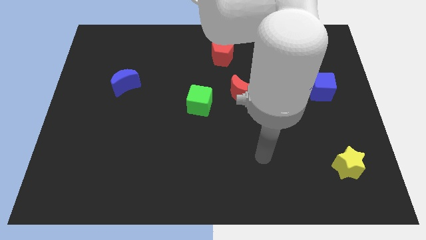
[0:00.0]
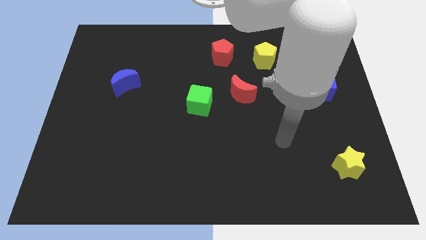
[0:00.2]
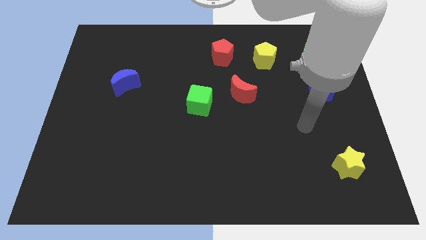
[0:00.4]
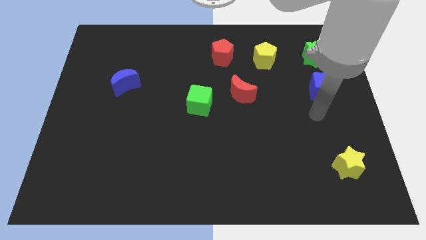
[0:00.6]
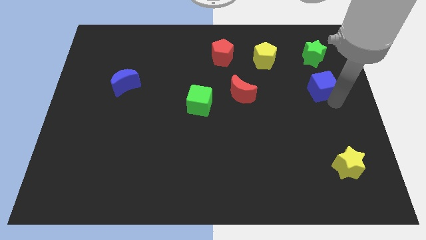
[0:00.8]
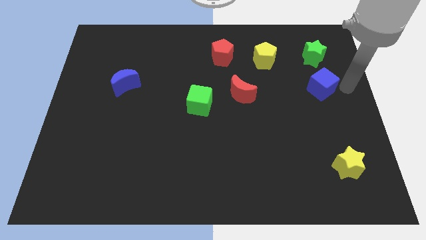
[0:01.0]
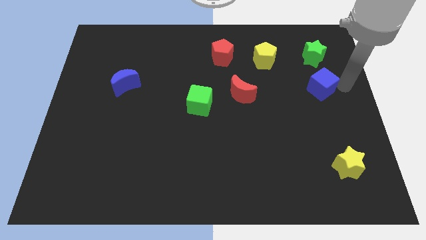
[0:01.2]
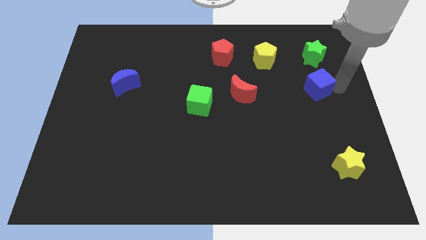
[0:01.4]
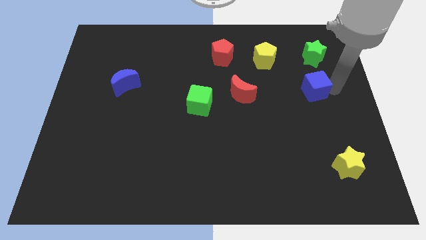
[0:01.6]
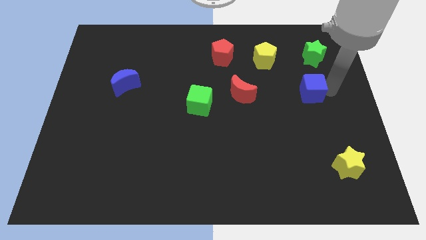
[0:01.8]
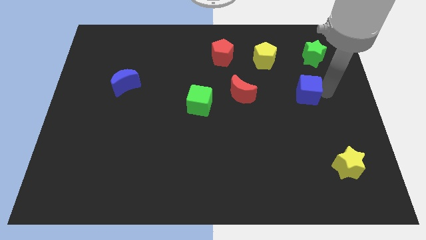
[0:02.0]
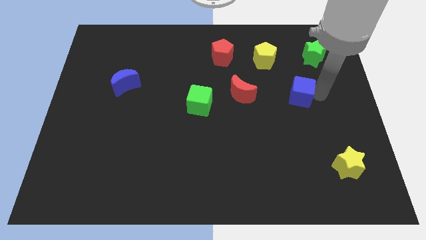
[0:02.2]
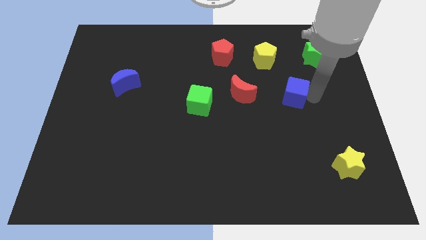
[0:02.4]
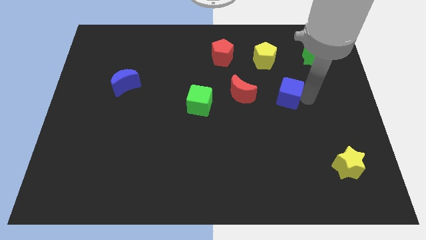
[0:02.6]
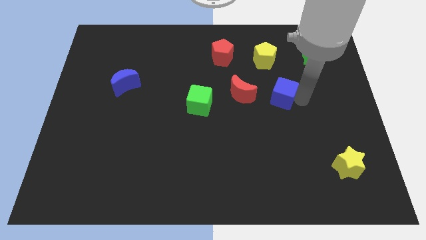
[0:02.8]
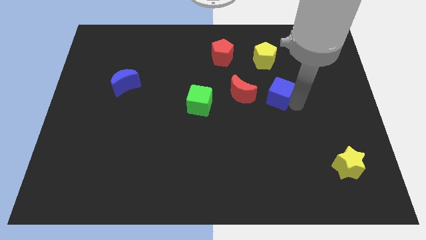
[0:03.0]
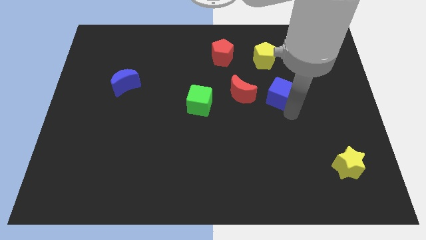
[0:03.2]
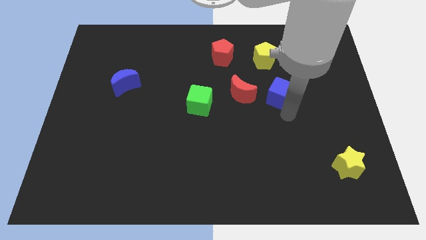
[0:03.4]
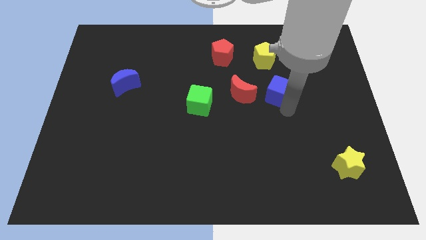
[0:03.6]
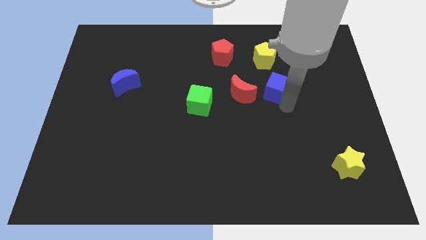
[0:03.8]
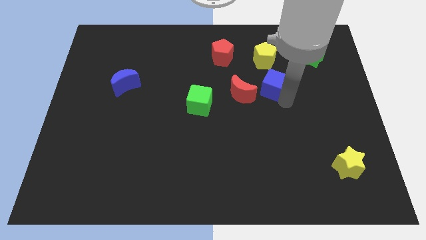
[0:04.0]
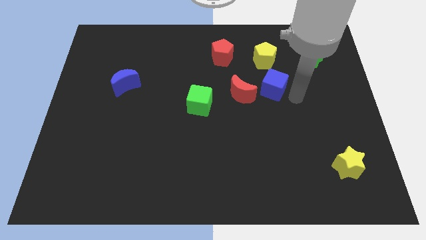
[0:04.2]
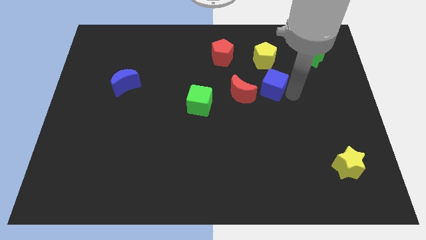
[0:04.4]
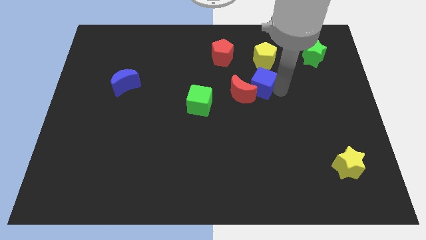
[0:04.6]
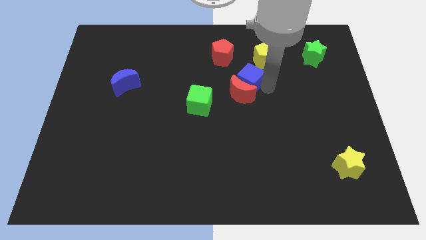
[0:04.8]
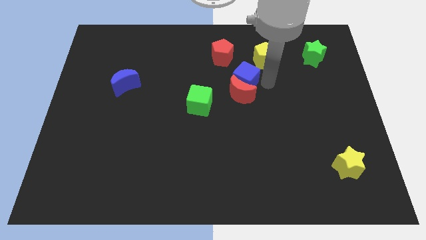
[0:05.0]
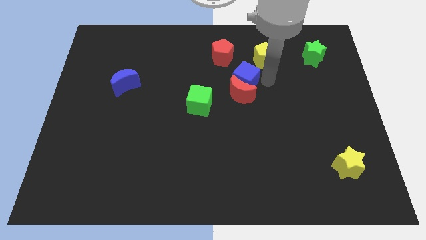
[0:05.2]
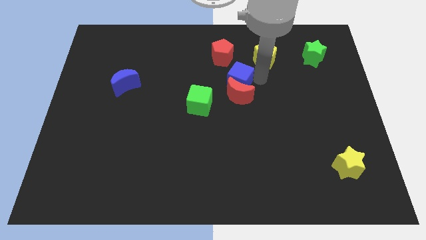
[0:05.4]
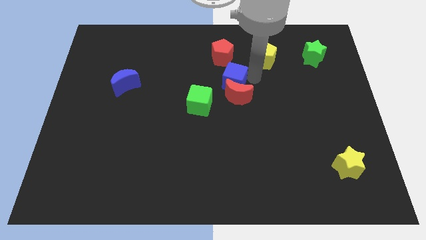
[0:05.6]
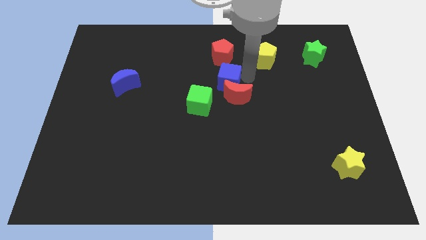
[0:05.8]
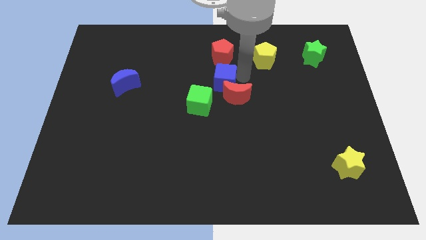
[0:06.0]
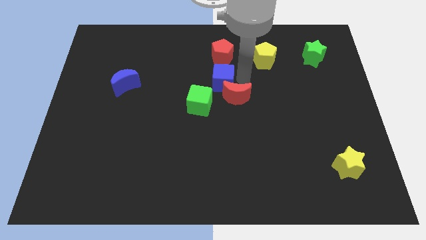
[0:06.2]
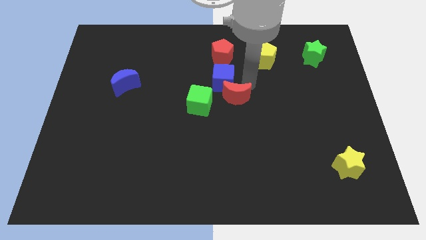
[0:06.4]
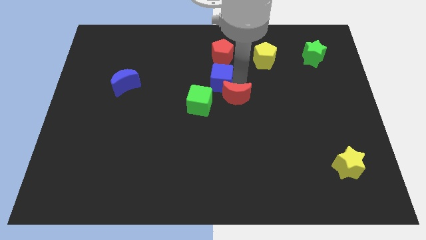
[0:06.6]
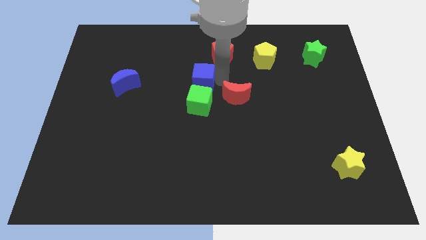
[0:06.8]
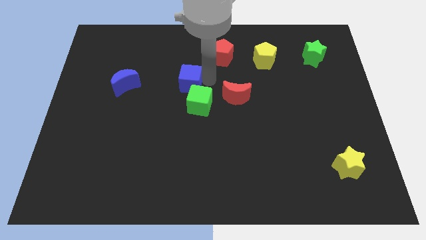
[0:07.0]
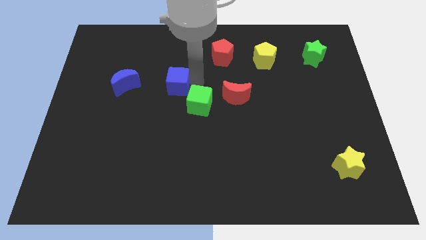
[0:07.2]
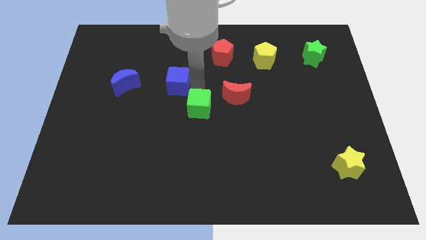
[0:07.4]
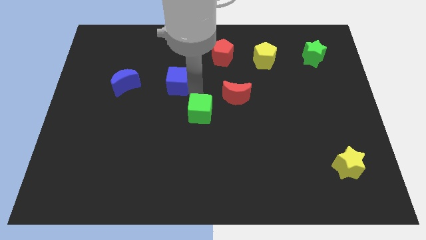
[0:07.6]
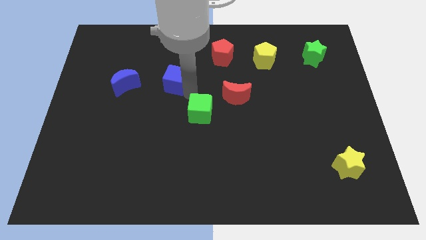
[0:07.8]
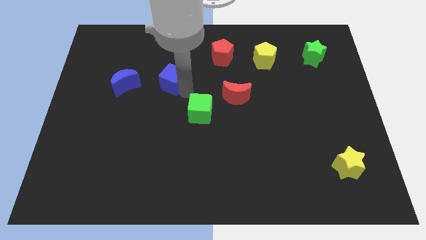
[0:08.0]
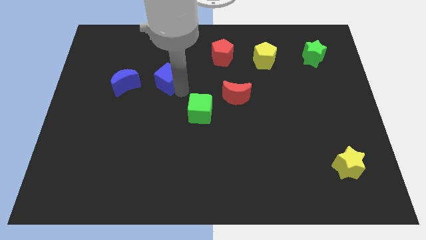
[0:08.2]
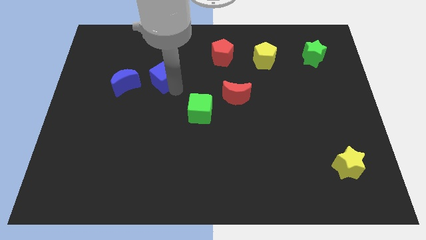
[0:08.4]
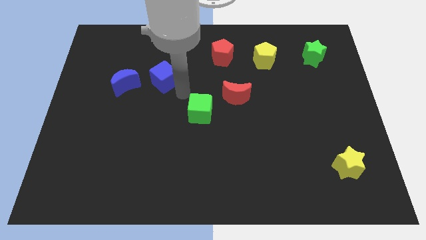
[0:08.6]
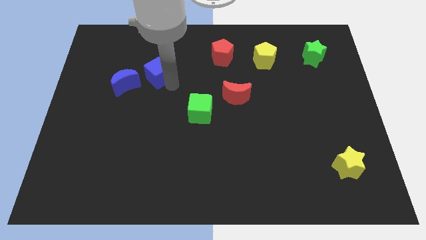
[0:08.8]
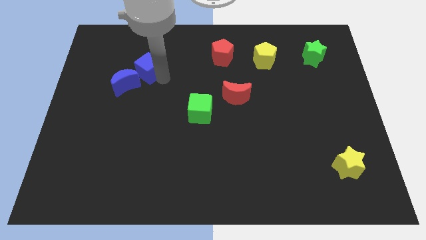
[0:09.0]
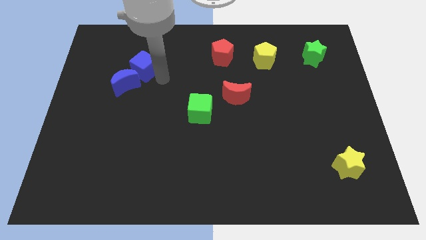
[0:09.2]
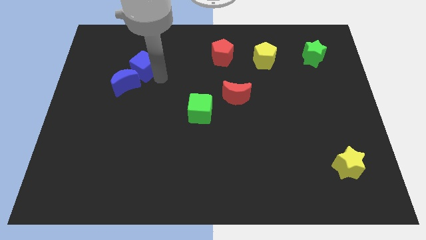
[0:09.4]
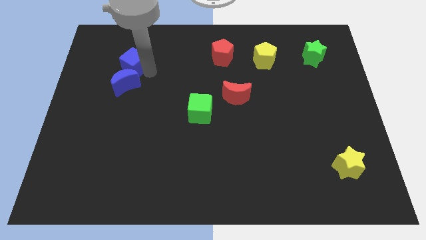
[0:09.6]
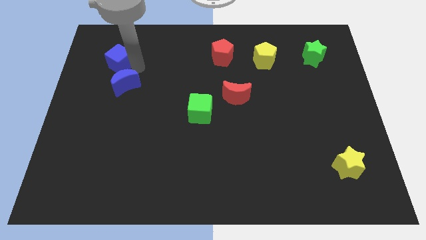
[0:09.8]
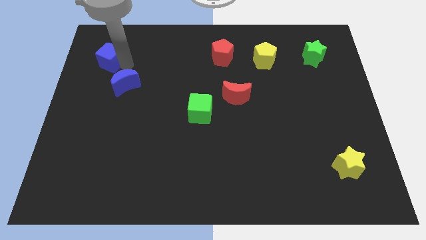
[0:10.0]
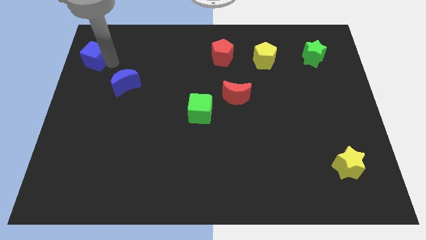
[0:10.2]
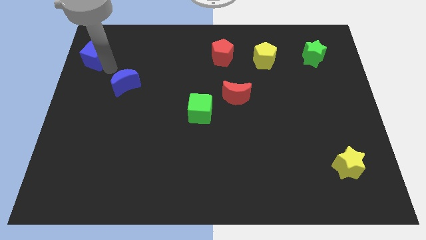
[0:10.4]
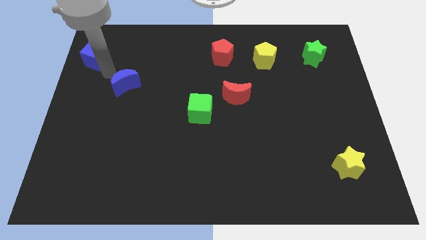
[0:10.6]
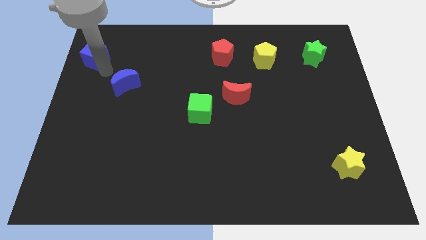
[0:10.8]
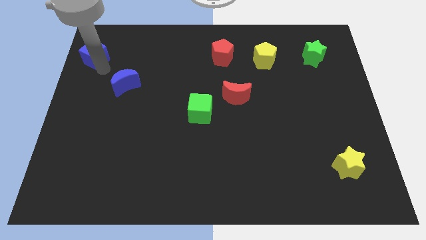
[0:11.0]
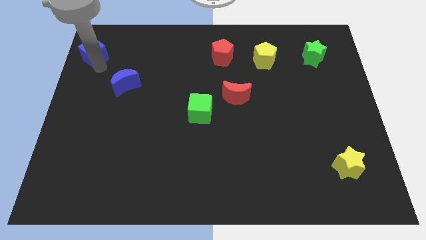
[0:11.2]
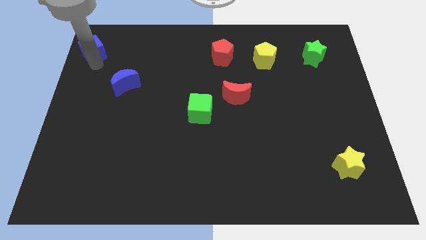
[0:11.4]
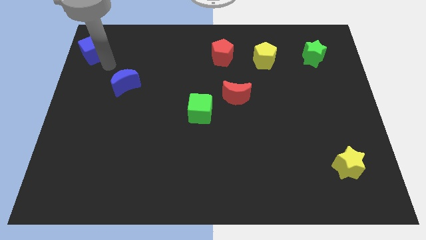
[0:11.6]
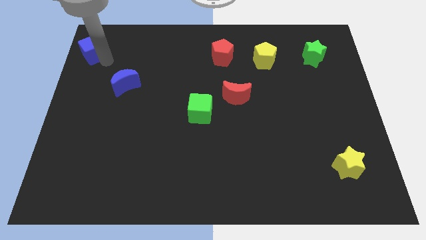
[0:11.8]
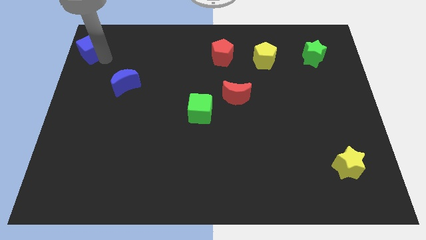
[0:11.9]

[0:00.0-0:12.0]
move the blue cube to the top left corner

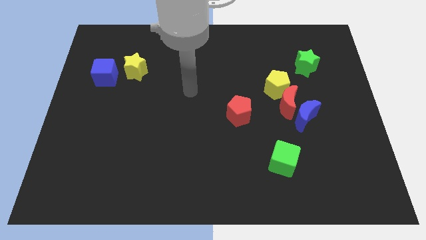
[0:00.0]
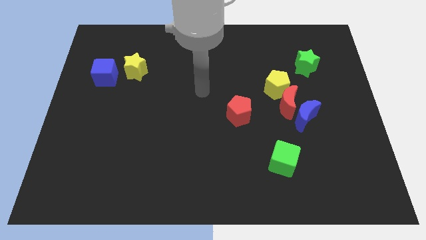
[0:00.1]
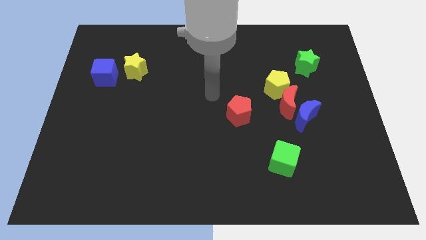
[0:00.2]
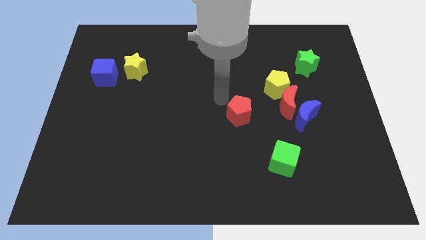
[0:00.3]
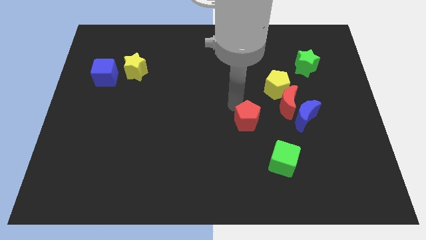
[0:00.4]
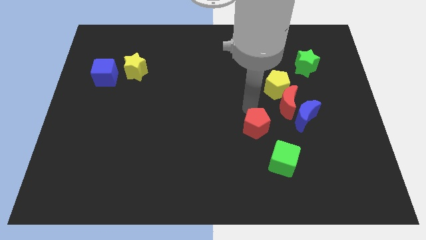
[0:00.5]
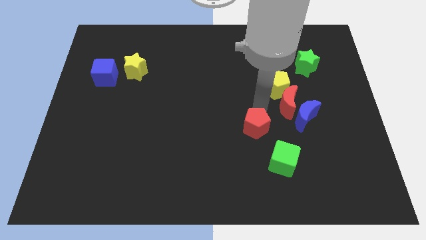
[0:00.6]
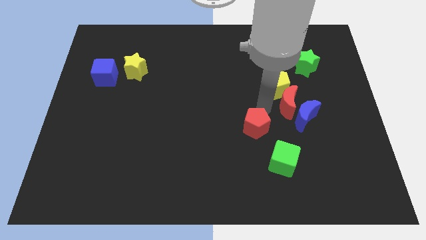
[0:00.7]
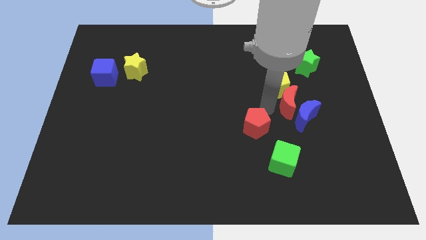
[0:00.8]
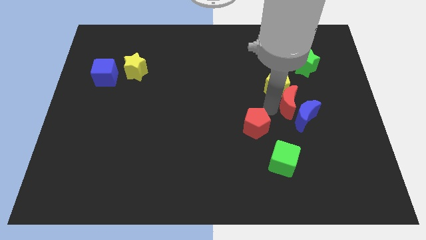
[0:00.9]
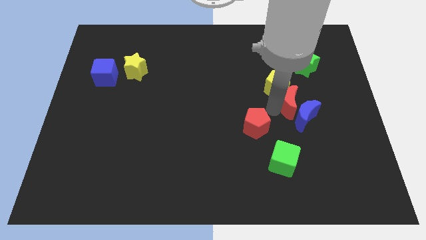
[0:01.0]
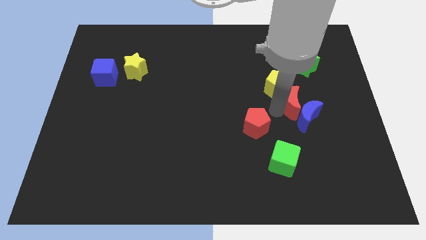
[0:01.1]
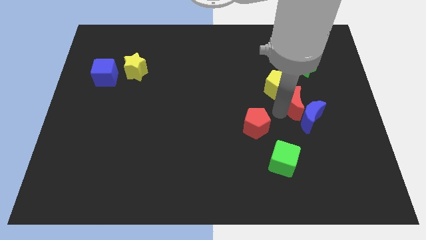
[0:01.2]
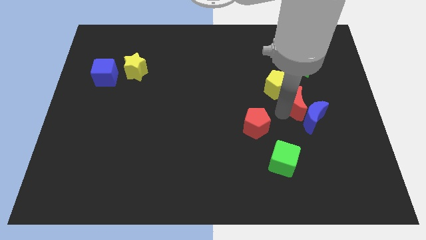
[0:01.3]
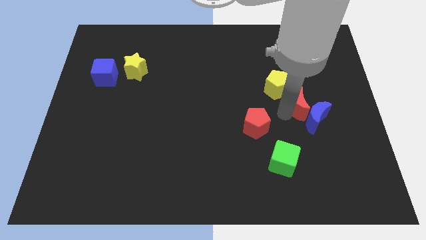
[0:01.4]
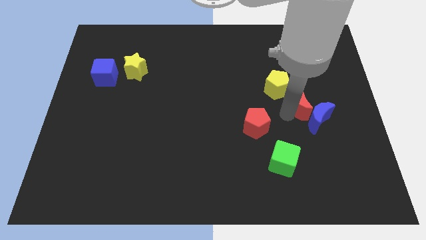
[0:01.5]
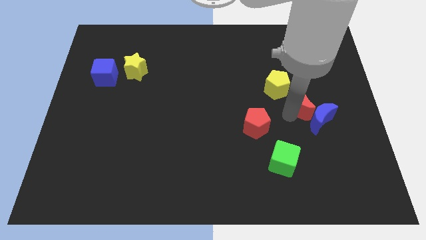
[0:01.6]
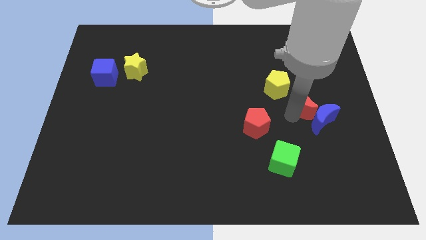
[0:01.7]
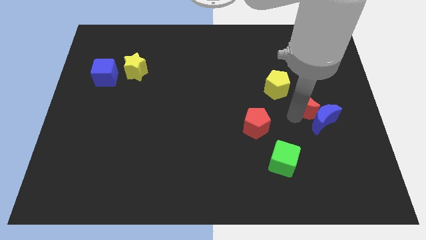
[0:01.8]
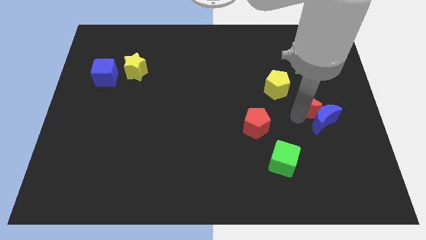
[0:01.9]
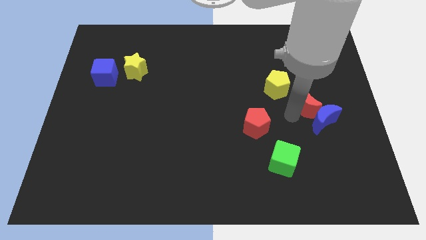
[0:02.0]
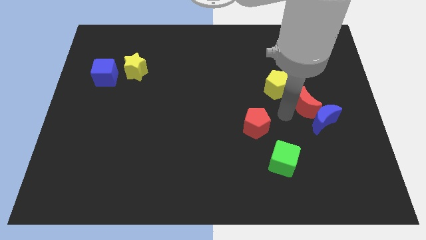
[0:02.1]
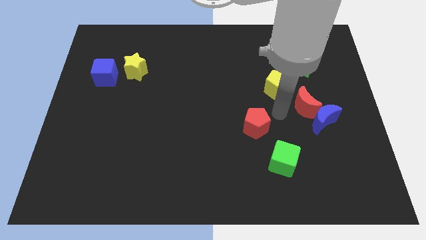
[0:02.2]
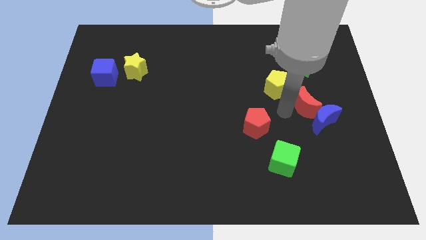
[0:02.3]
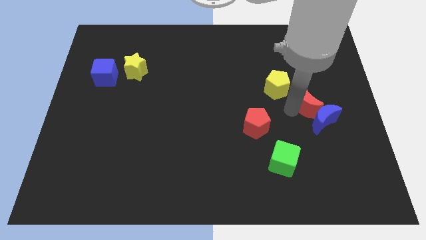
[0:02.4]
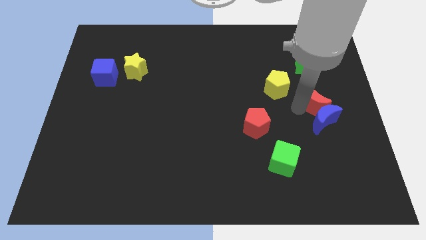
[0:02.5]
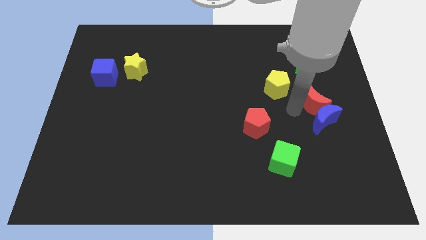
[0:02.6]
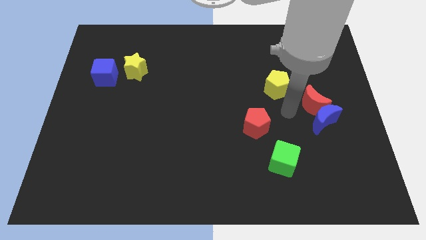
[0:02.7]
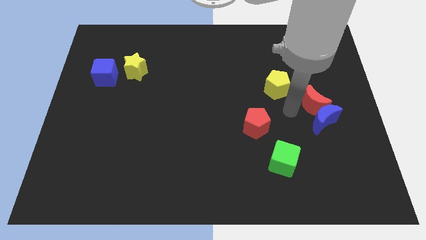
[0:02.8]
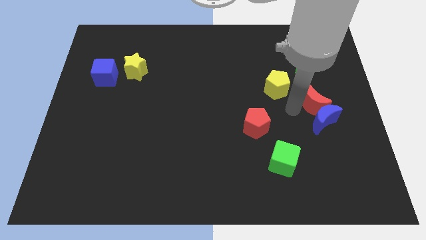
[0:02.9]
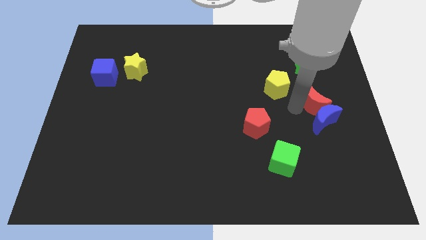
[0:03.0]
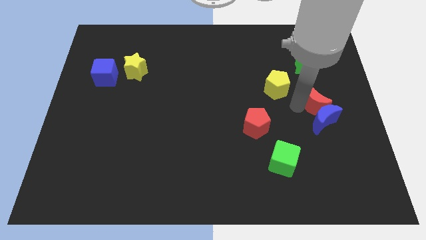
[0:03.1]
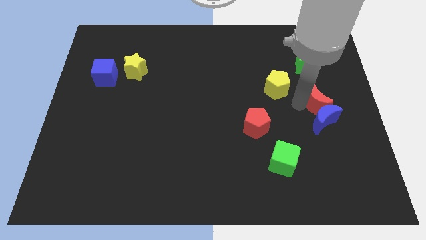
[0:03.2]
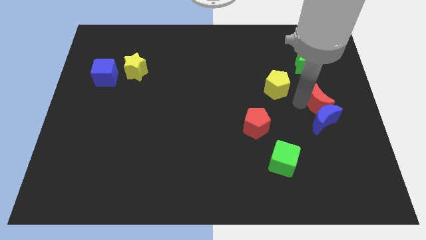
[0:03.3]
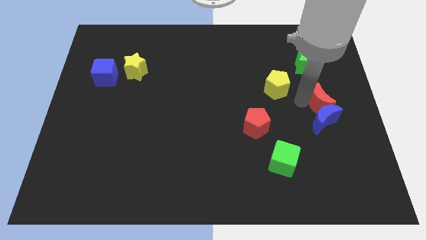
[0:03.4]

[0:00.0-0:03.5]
slide the red moon to the right side
